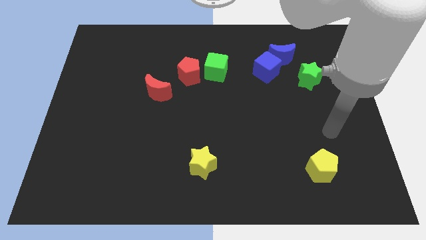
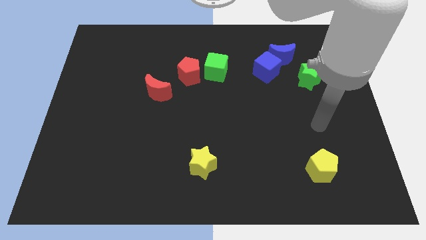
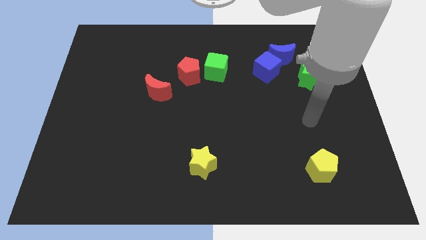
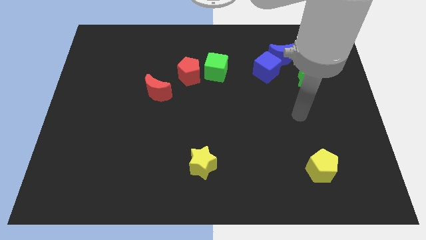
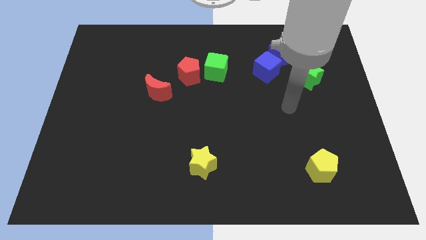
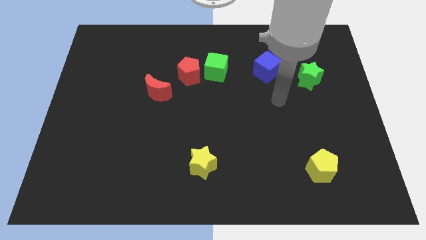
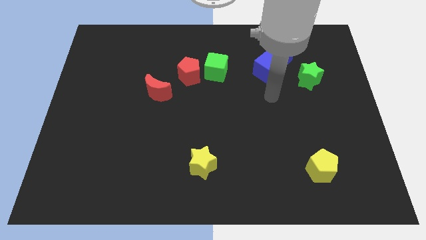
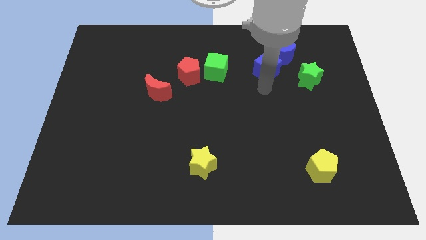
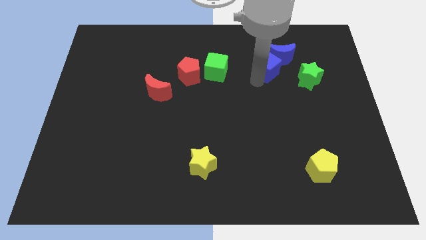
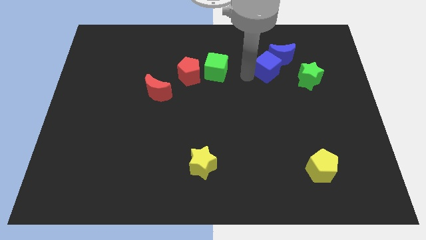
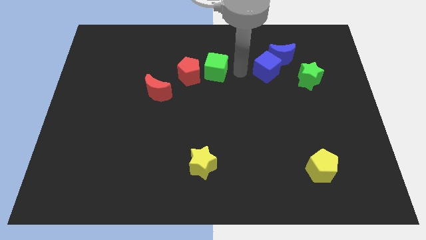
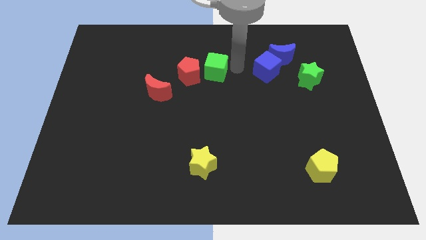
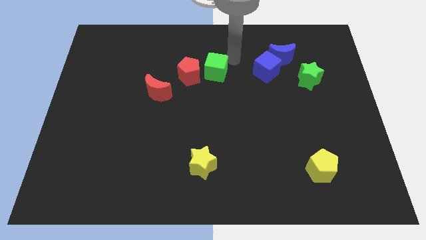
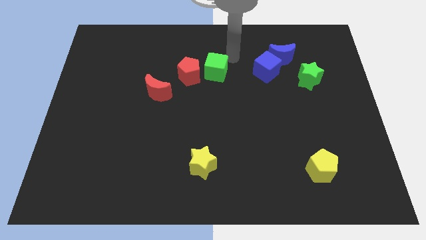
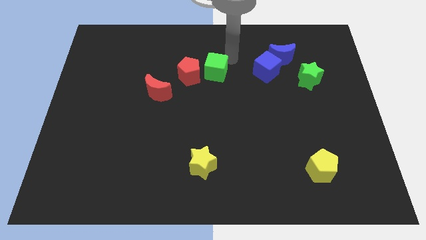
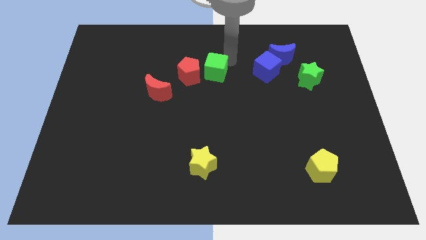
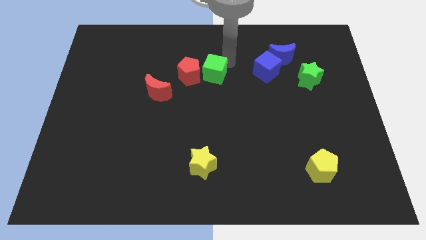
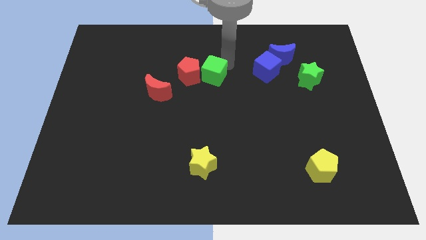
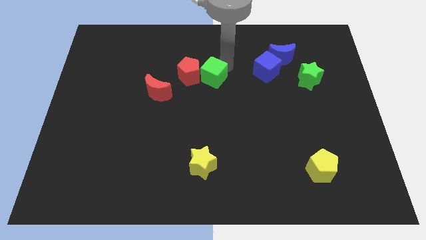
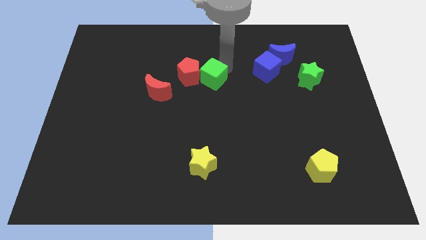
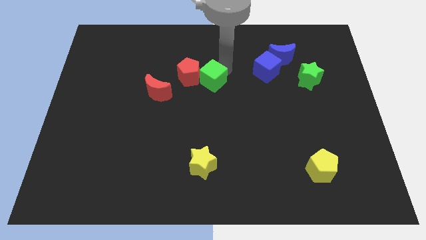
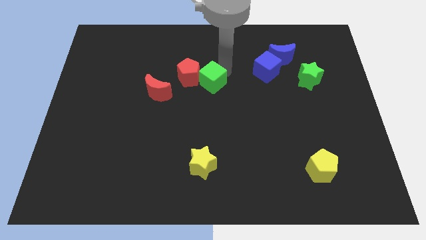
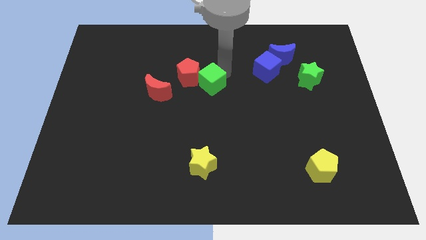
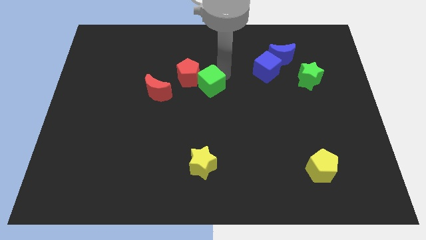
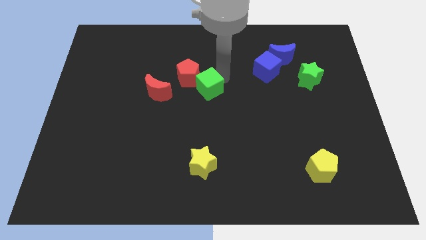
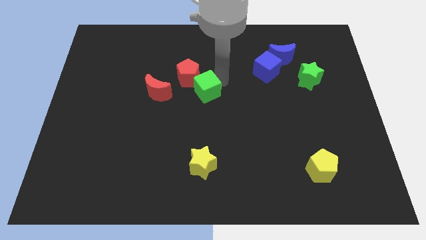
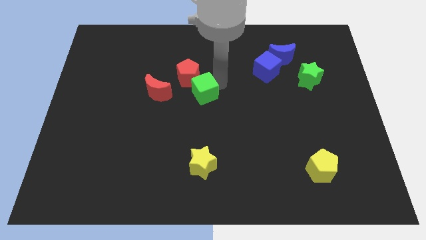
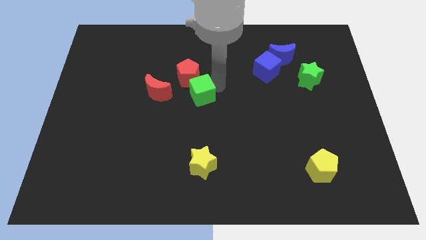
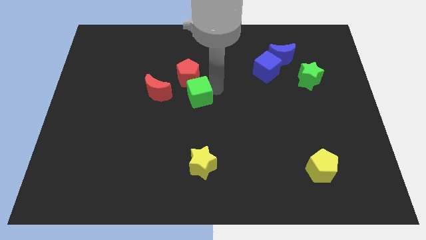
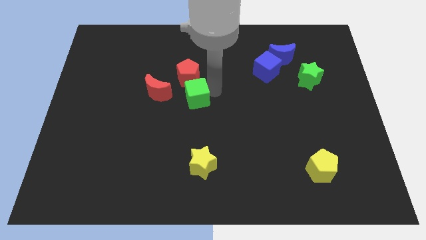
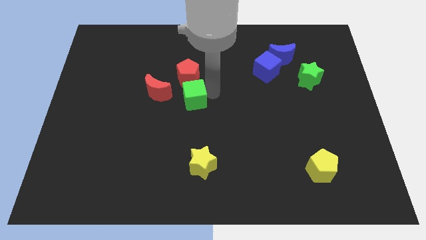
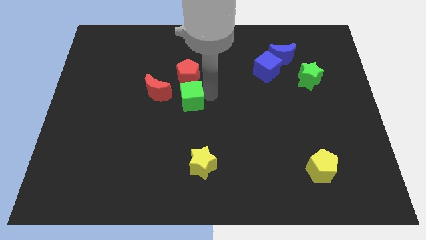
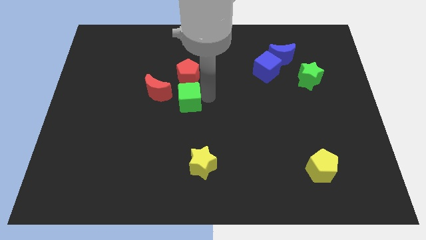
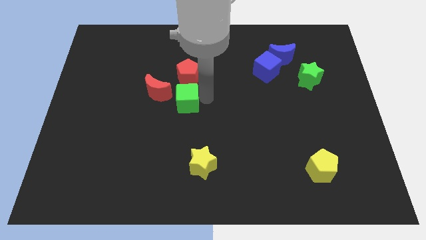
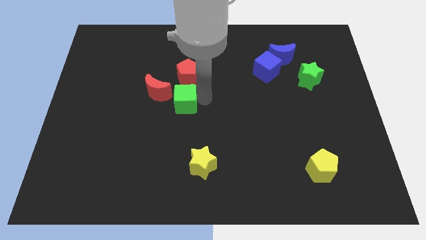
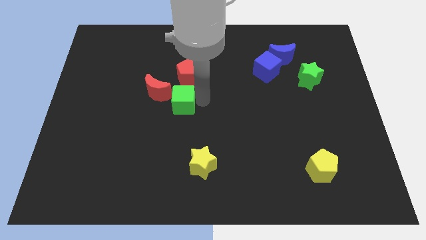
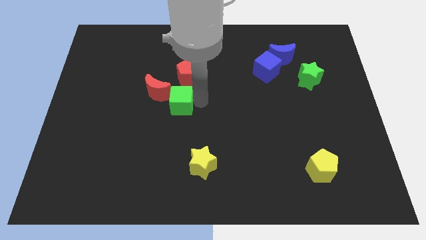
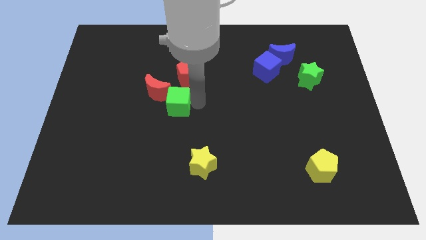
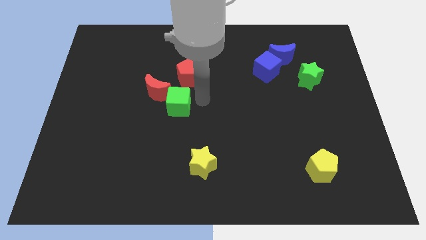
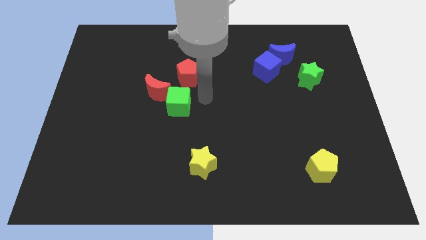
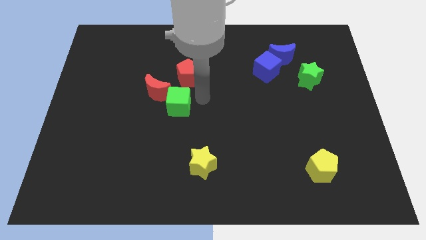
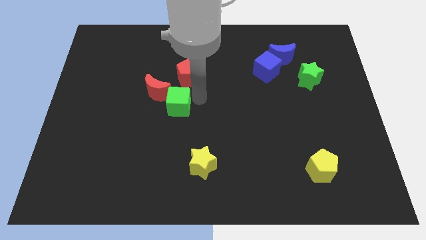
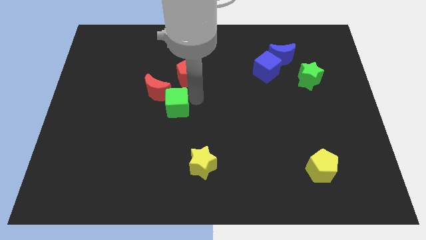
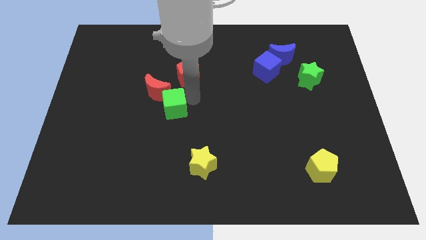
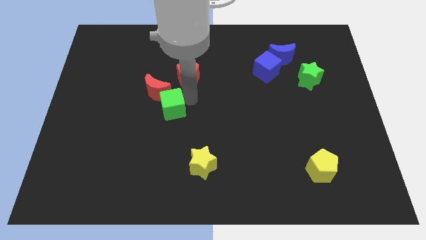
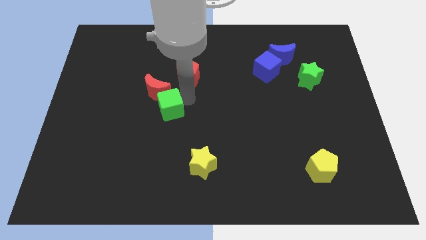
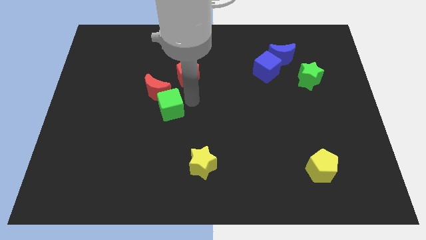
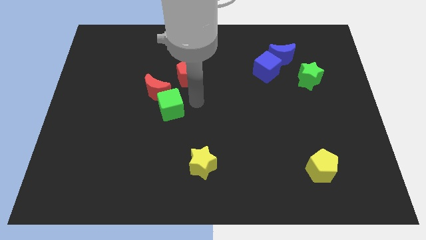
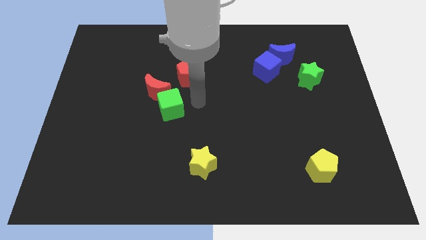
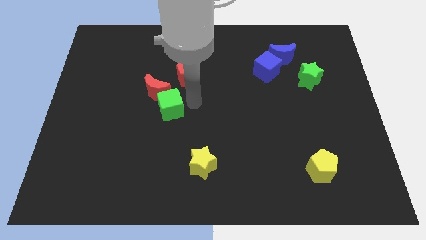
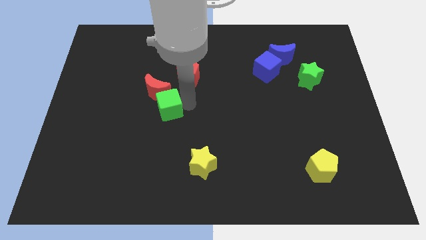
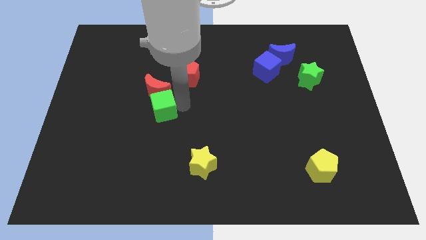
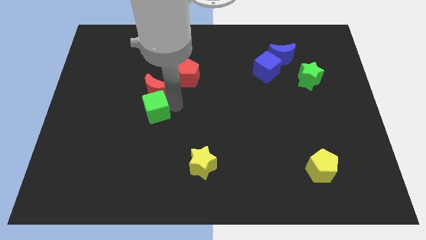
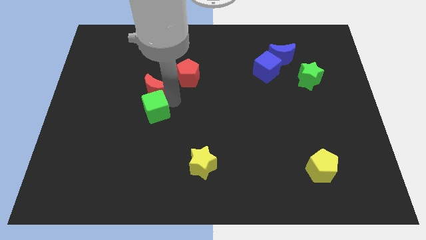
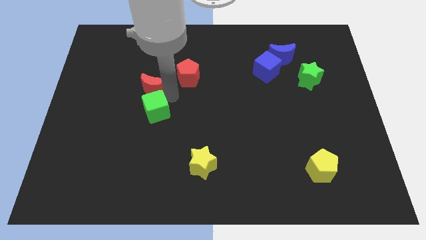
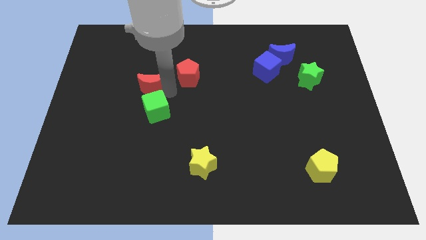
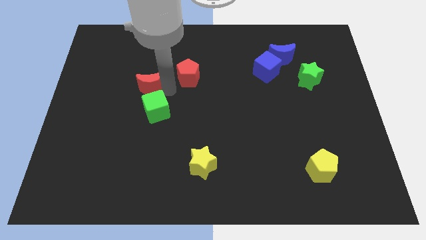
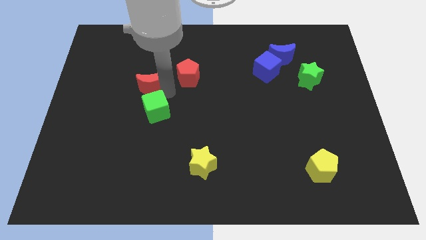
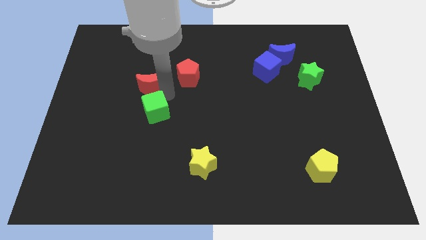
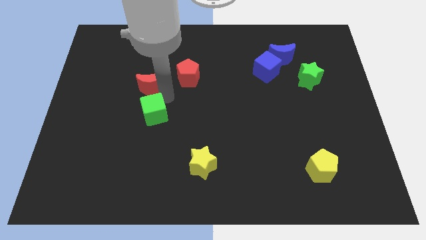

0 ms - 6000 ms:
push the green cube down and left diagonally

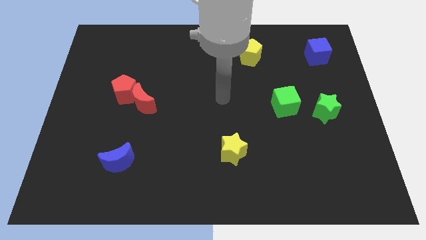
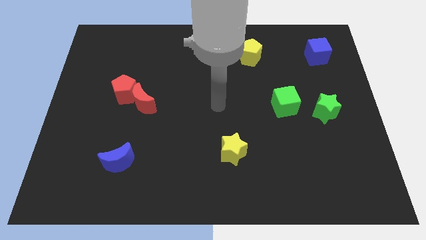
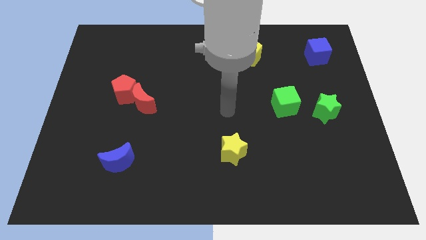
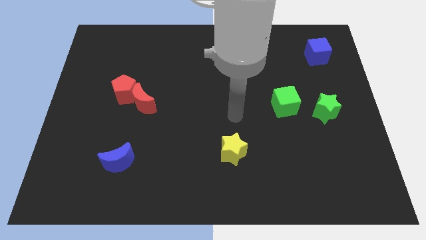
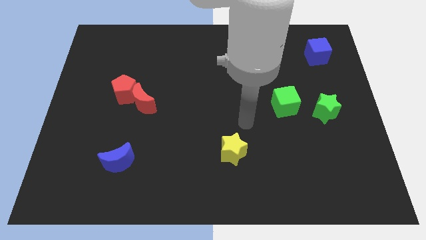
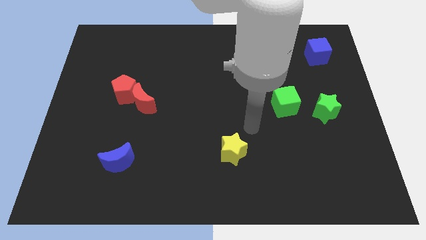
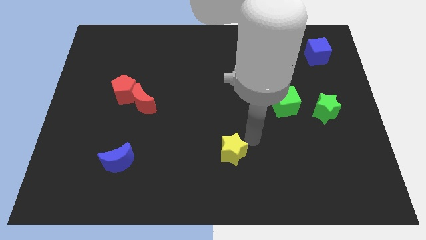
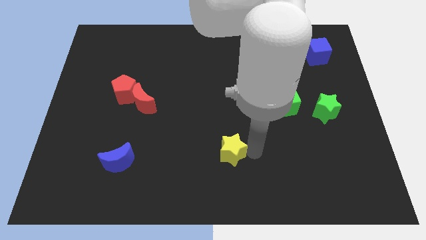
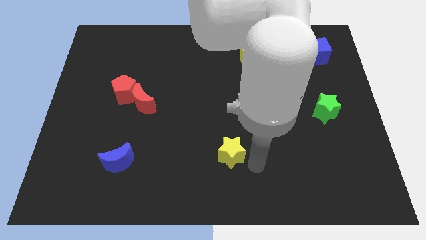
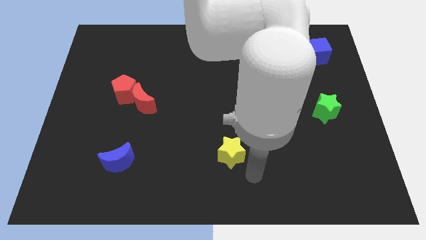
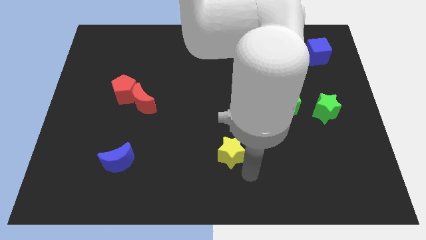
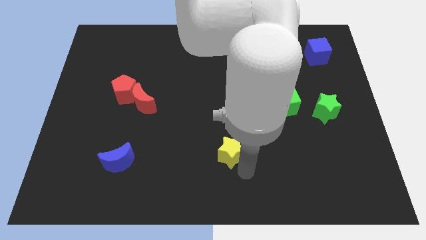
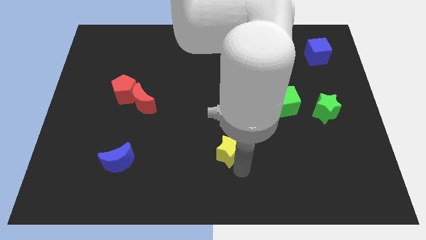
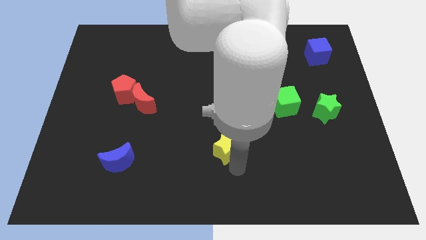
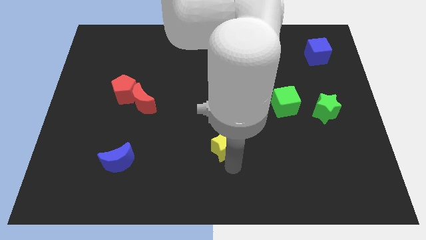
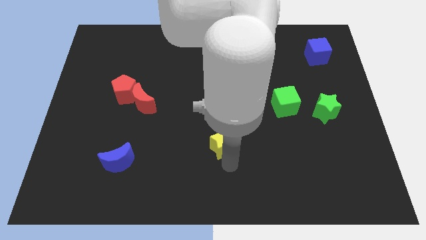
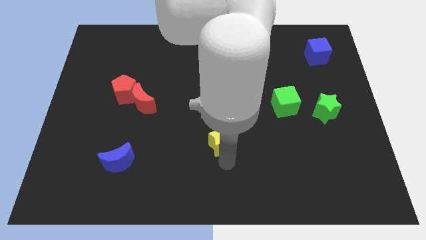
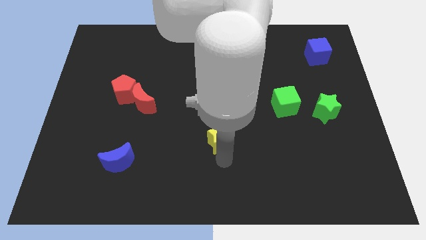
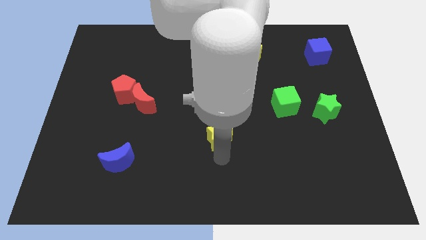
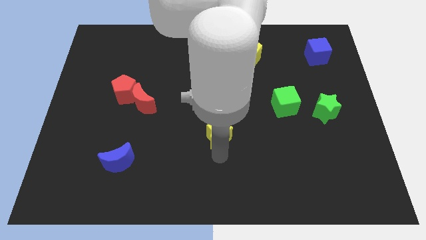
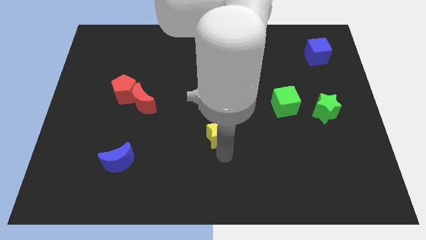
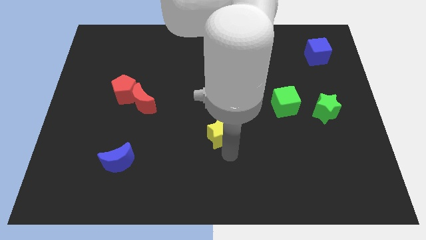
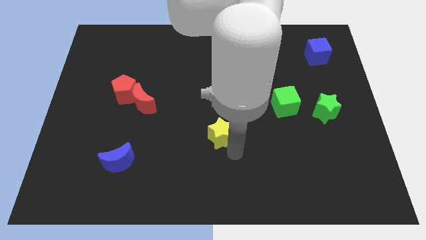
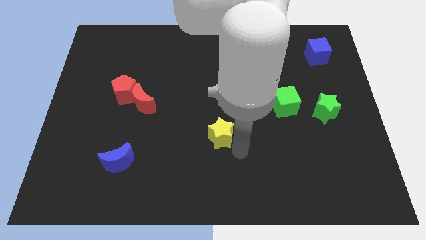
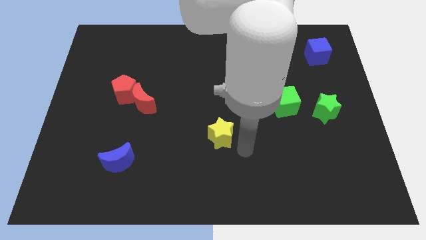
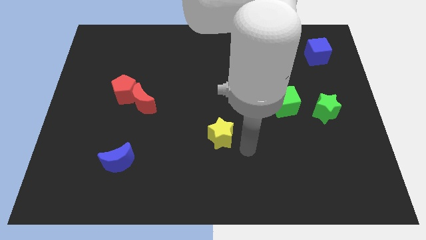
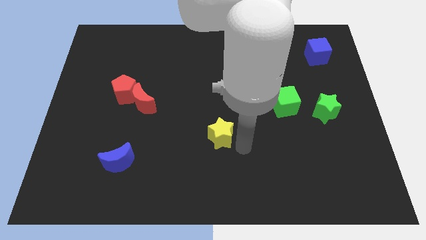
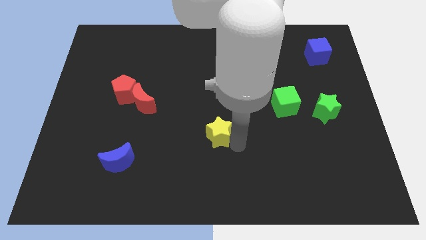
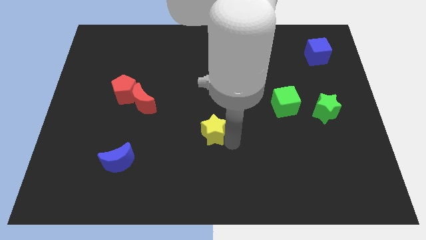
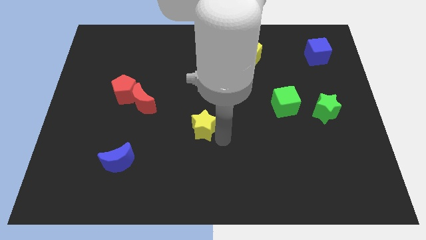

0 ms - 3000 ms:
move the yellow star slightly upwards and then to the left
